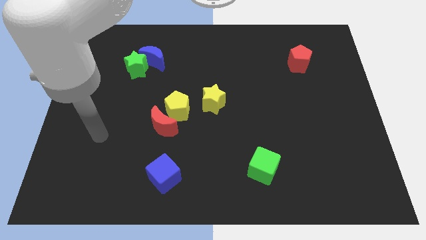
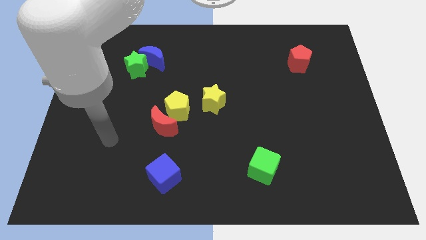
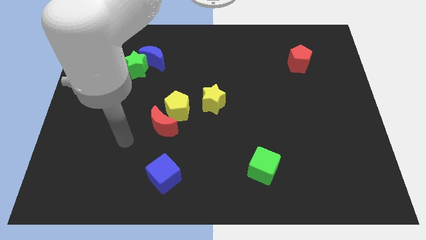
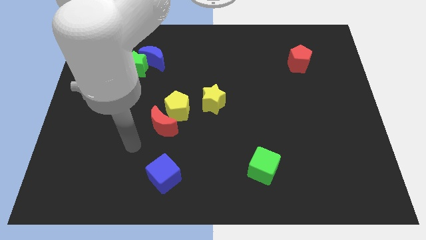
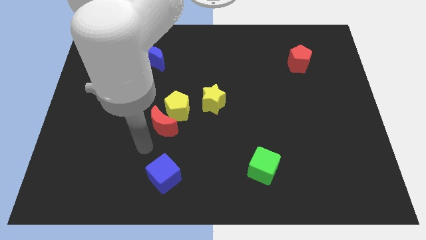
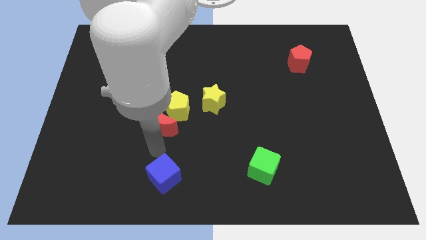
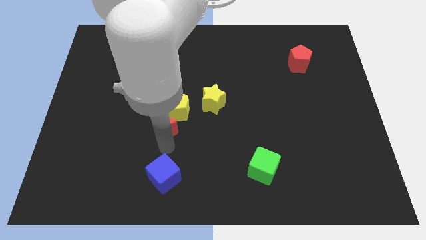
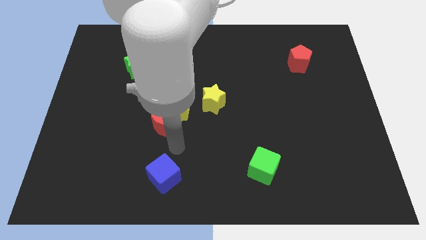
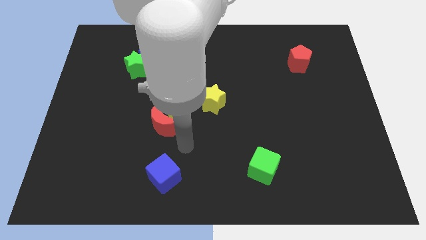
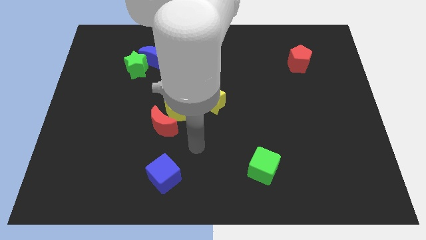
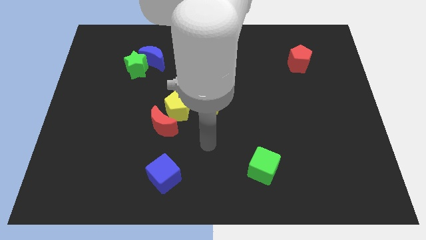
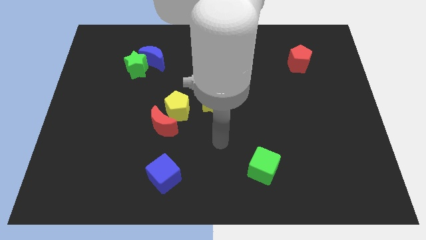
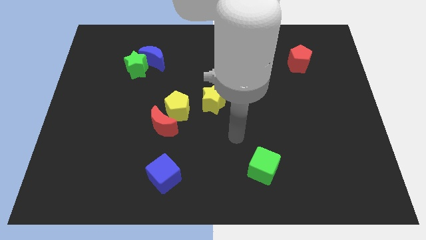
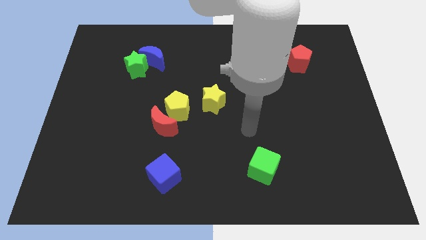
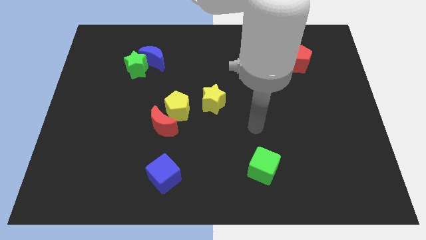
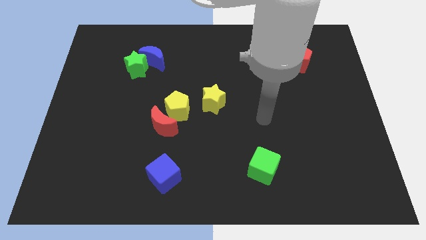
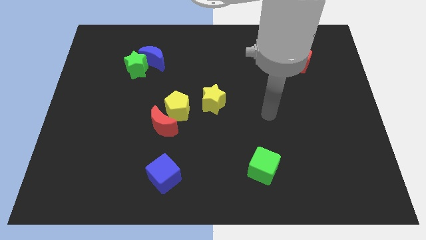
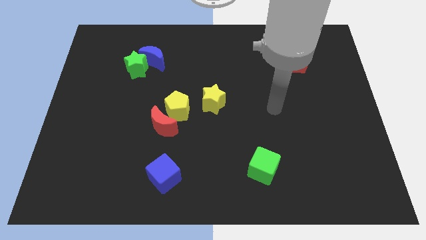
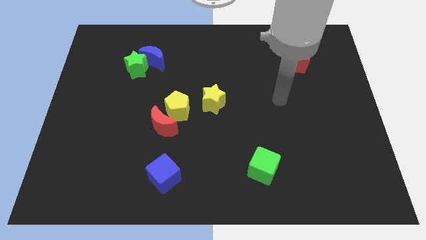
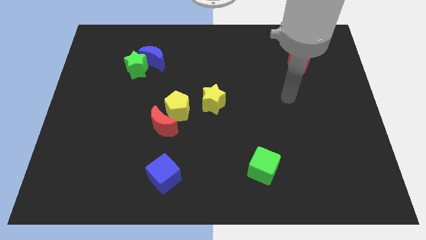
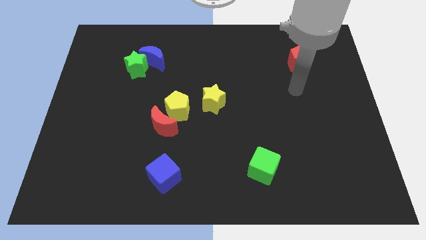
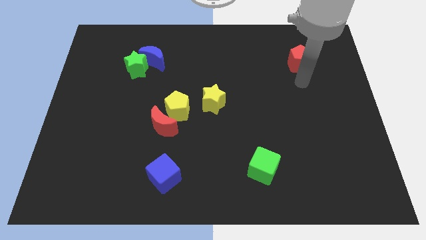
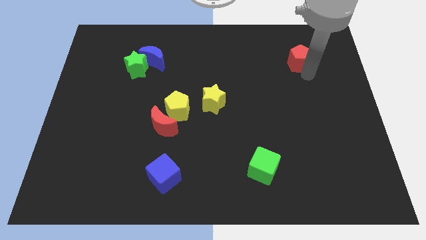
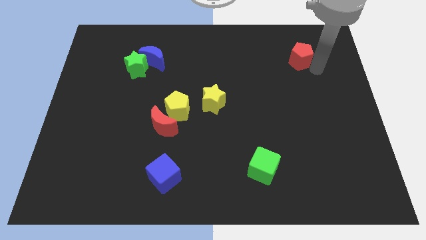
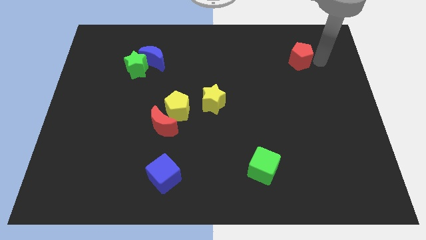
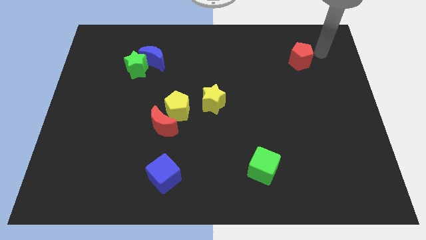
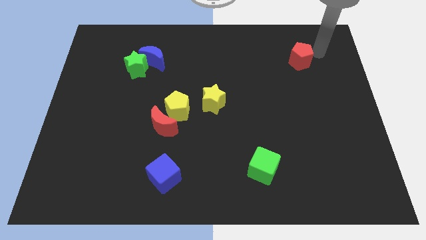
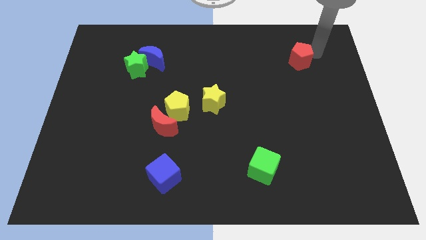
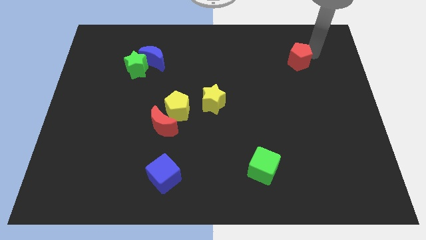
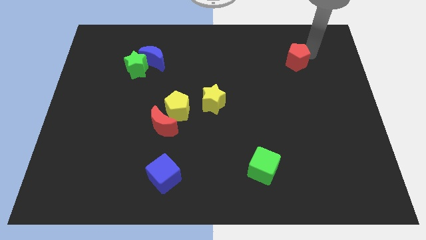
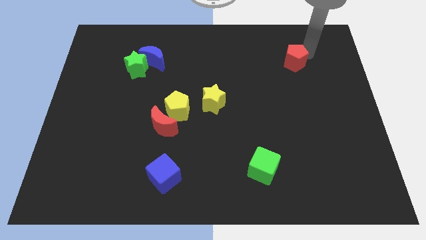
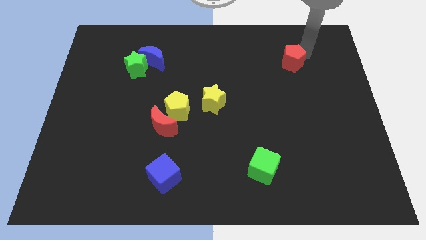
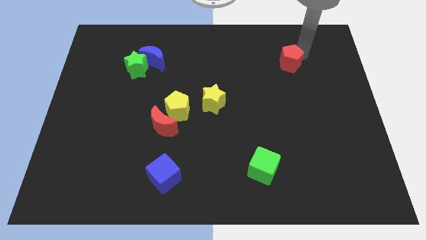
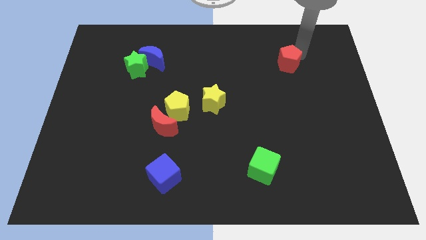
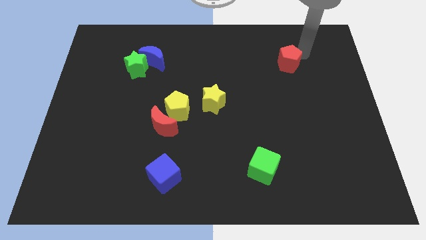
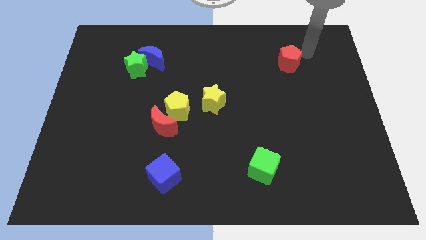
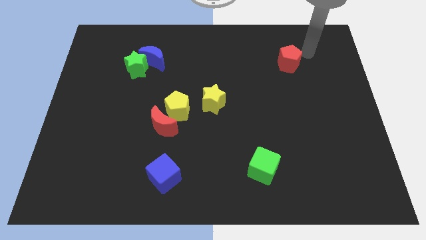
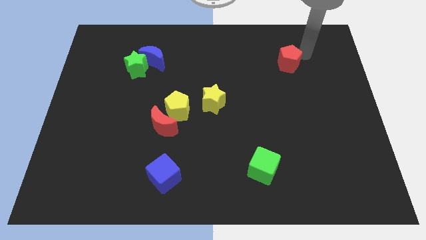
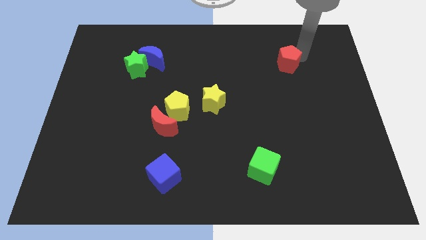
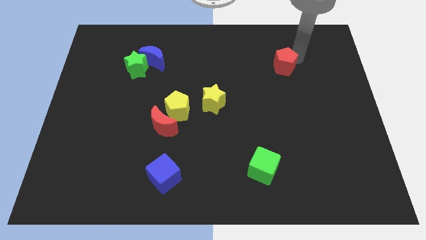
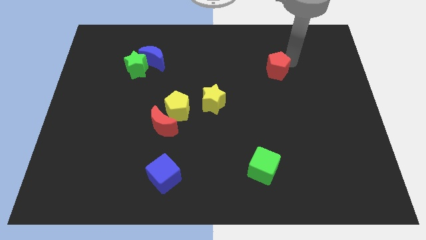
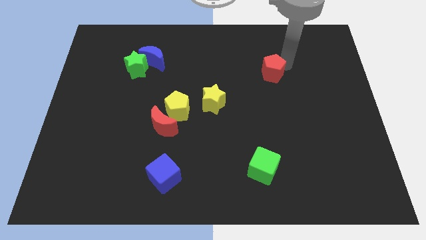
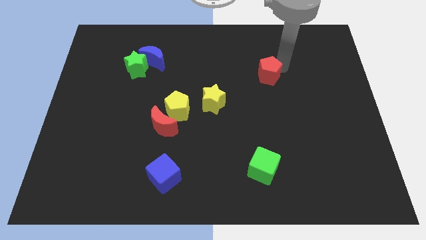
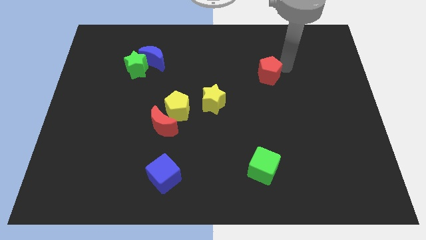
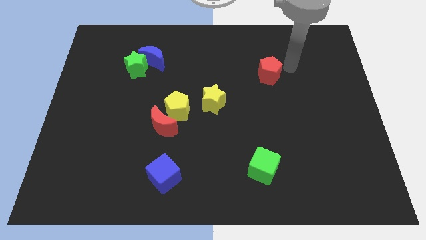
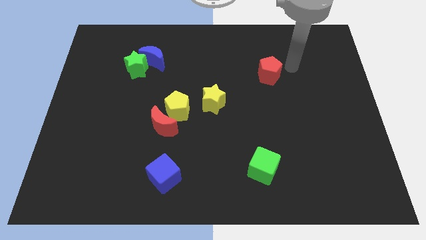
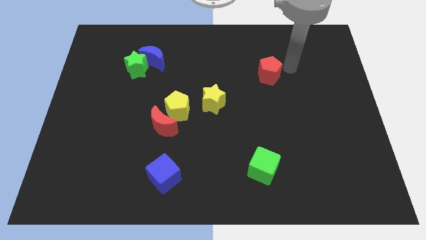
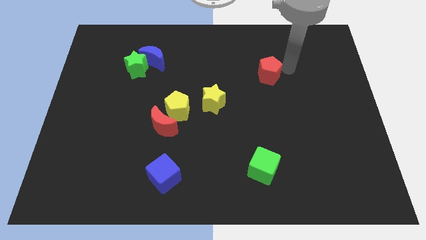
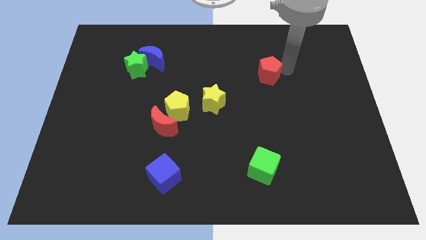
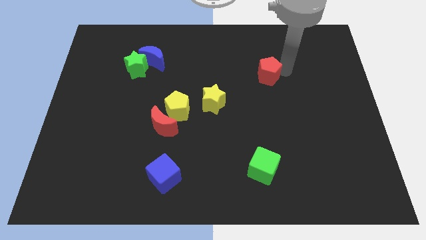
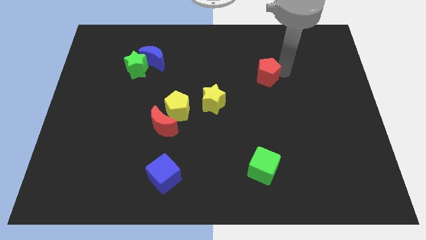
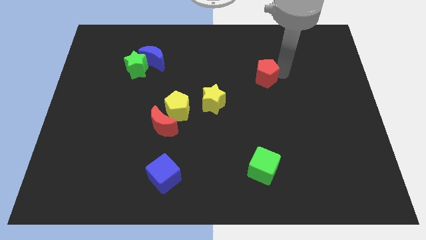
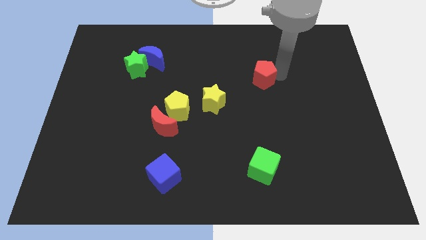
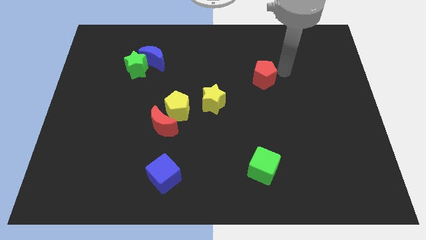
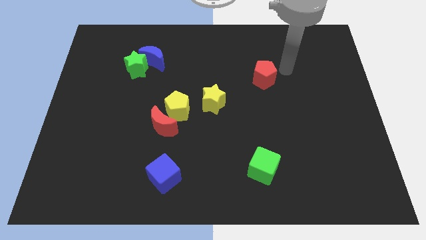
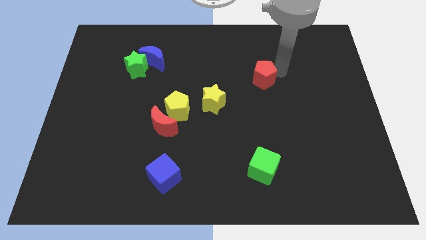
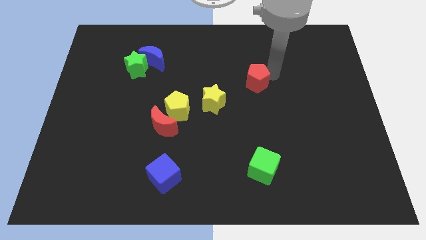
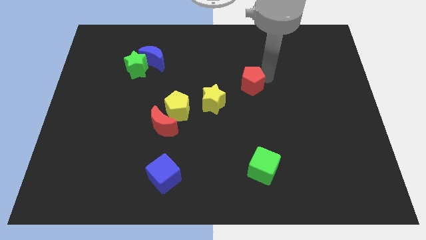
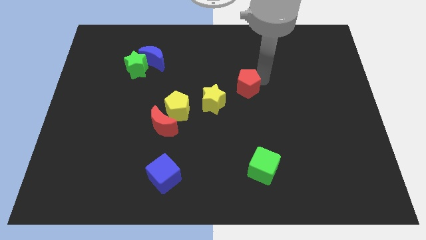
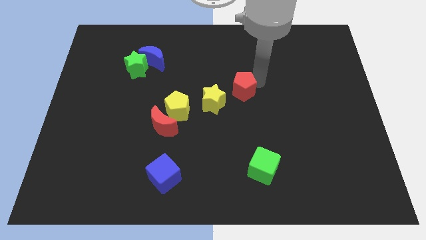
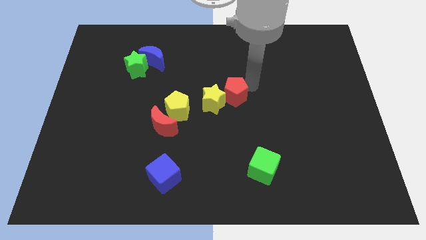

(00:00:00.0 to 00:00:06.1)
move the red pentagon next to the yellow star

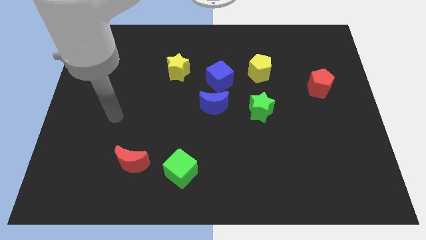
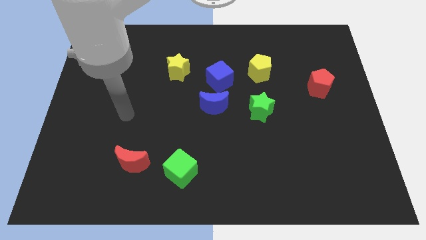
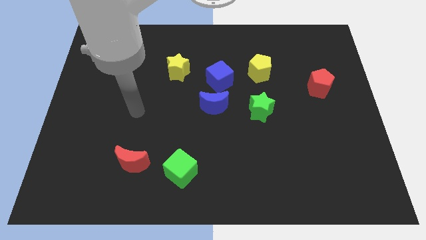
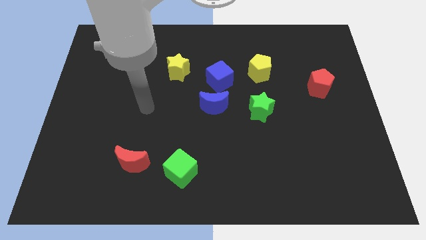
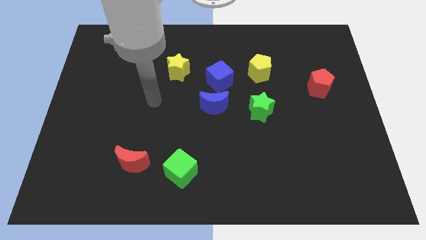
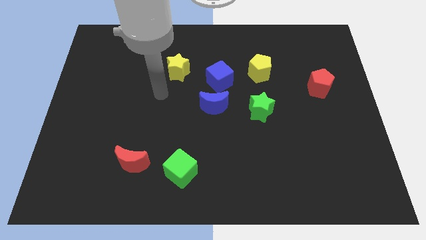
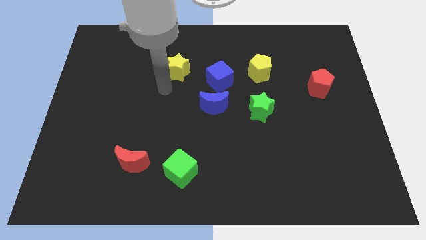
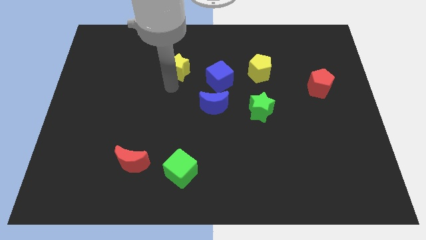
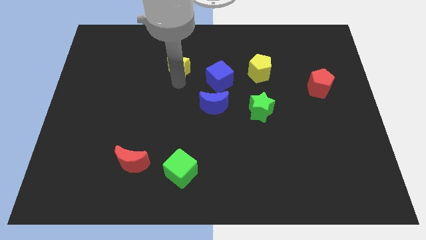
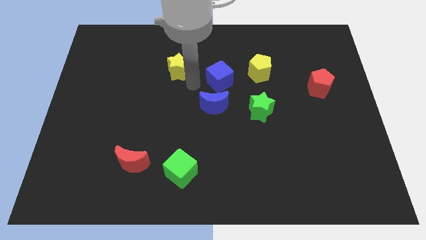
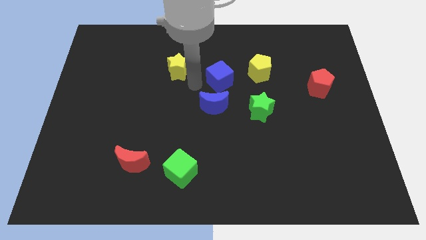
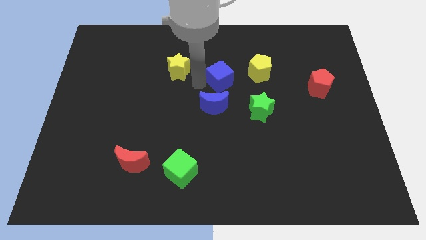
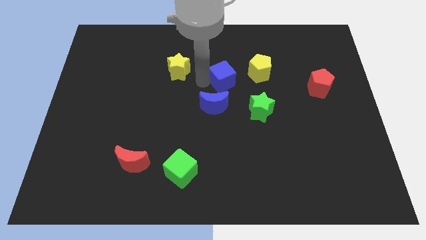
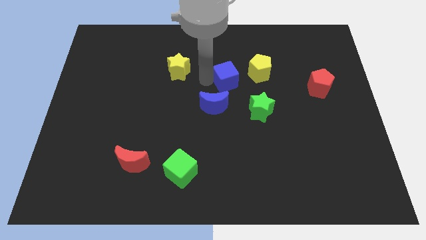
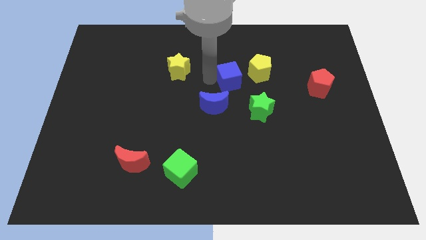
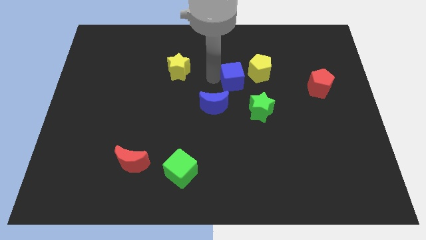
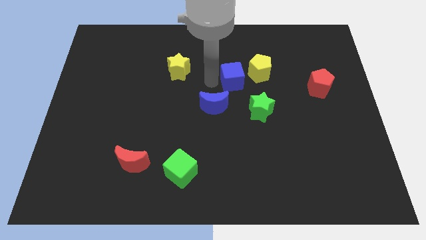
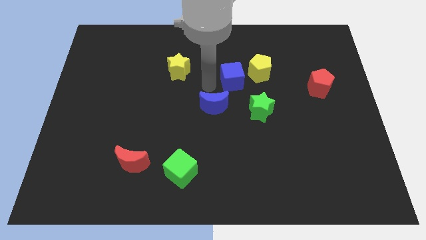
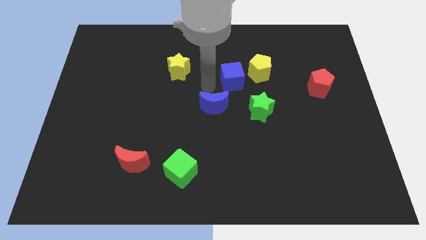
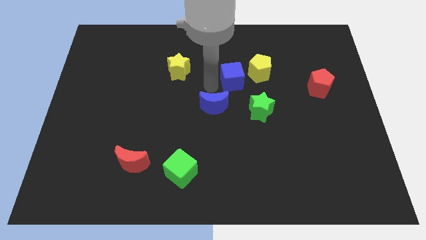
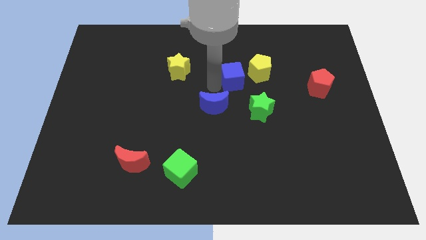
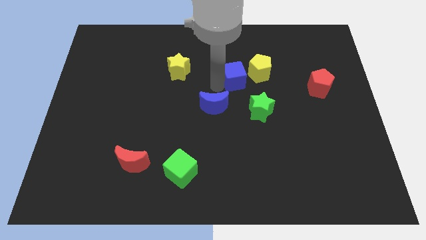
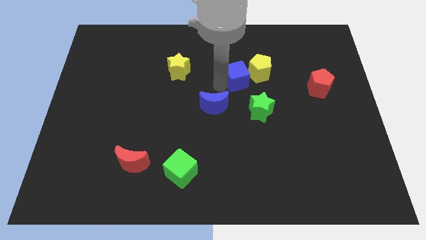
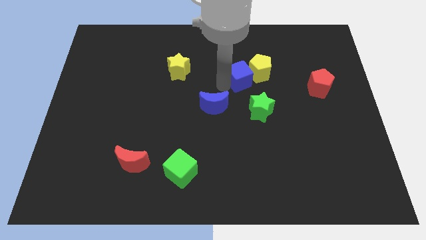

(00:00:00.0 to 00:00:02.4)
slide the blue cube towards the yellow pentagon
